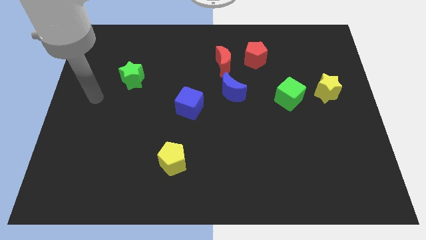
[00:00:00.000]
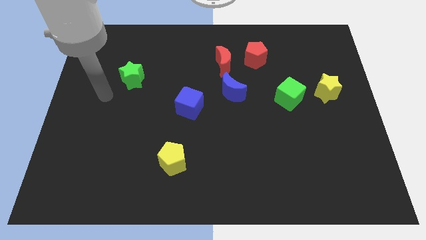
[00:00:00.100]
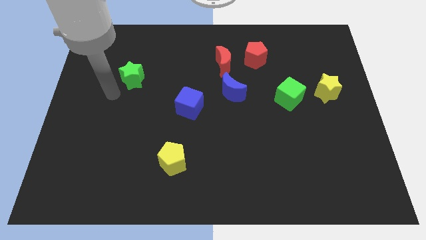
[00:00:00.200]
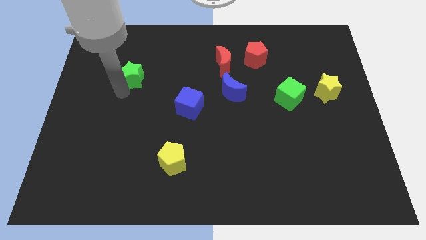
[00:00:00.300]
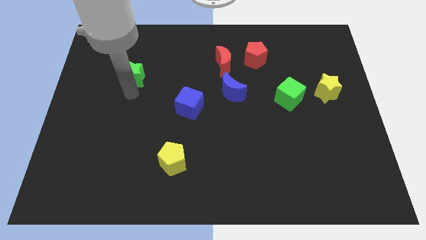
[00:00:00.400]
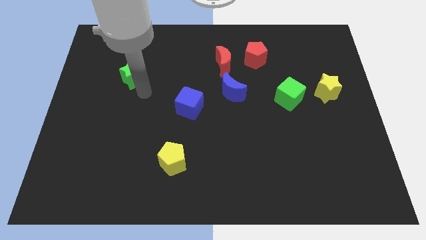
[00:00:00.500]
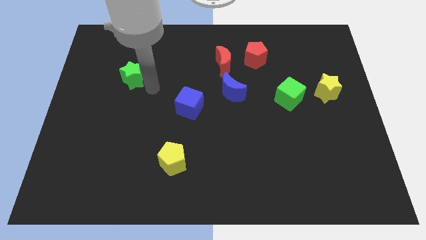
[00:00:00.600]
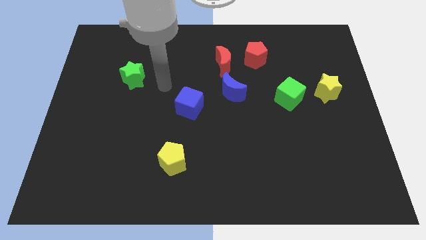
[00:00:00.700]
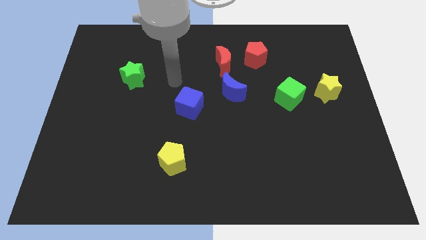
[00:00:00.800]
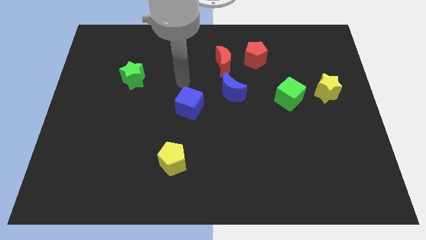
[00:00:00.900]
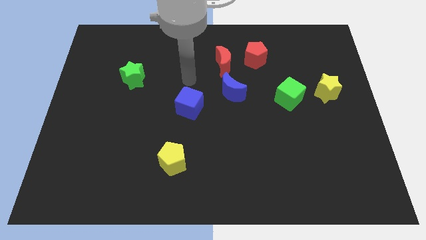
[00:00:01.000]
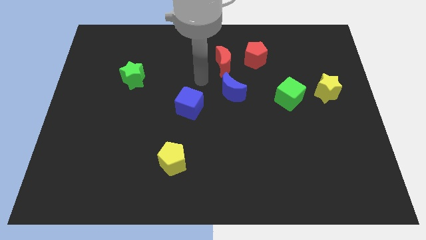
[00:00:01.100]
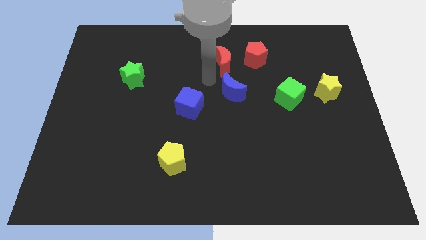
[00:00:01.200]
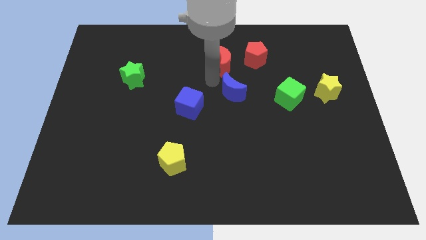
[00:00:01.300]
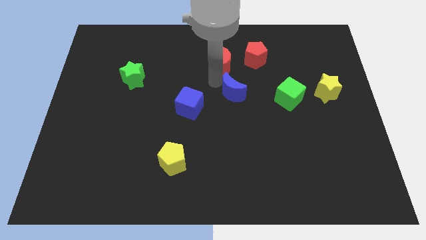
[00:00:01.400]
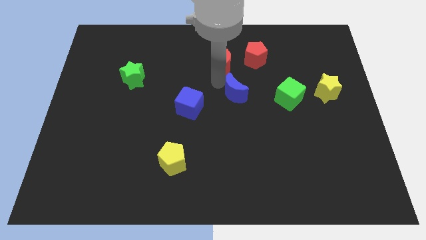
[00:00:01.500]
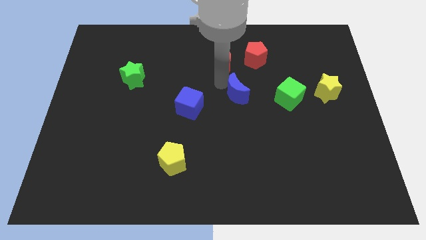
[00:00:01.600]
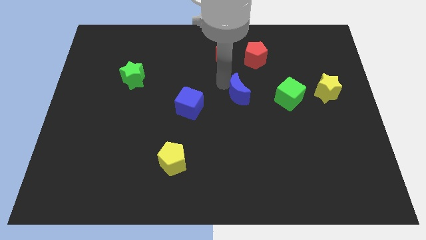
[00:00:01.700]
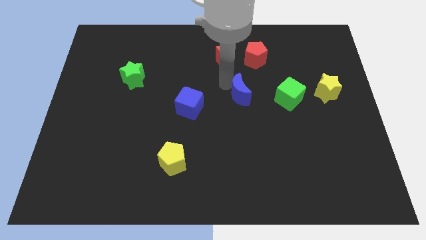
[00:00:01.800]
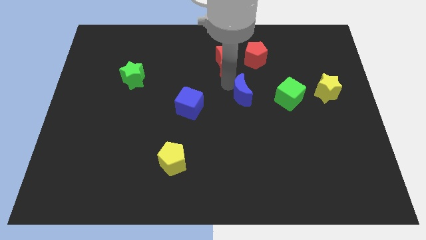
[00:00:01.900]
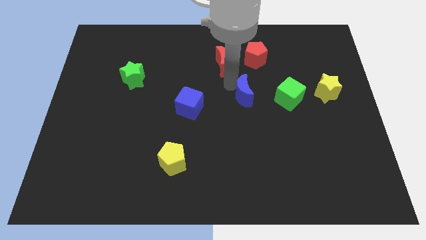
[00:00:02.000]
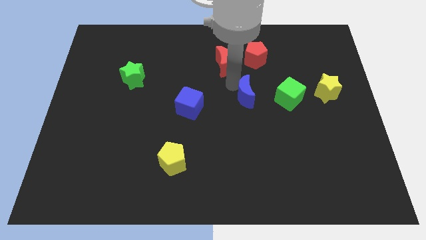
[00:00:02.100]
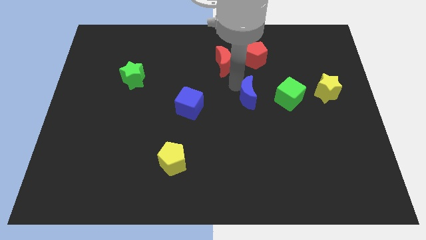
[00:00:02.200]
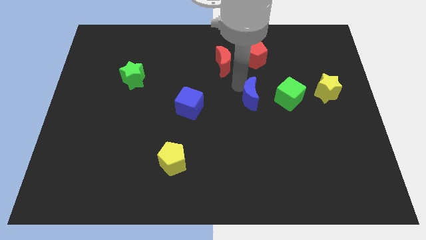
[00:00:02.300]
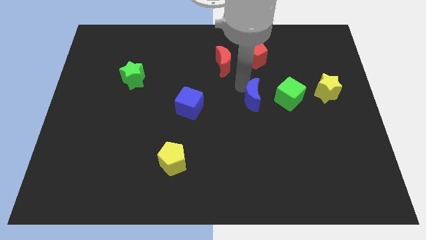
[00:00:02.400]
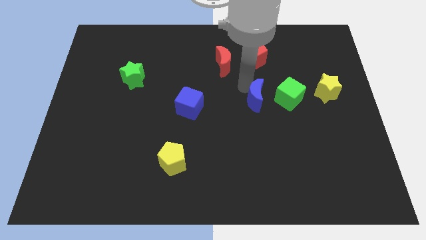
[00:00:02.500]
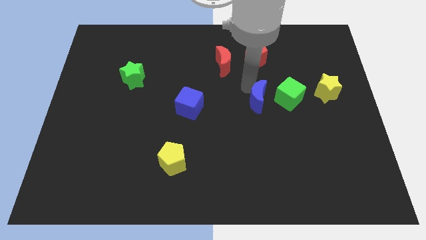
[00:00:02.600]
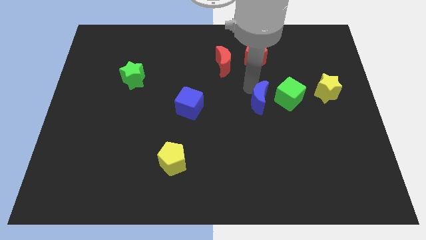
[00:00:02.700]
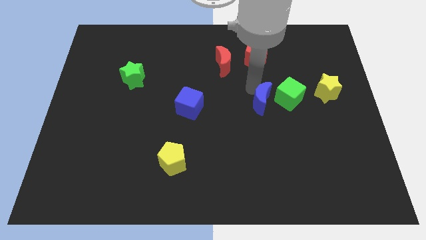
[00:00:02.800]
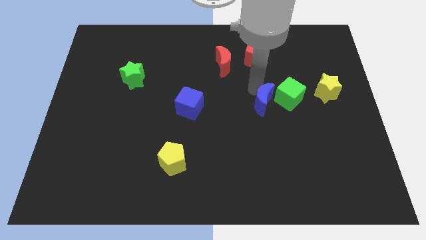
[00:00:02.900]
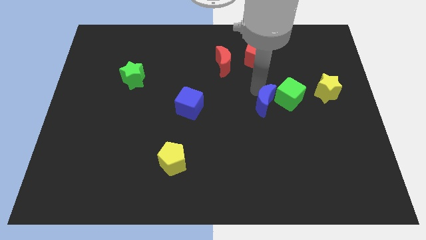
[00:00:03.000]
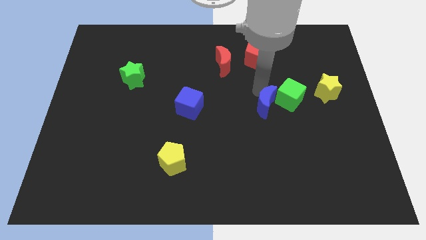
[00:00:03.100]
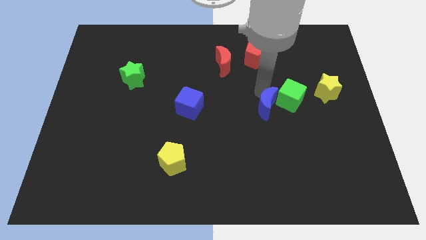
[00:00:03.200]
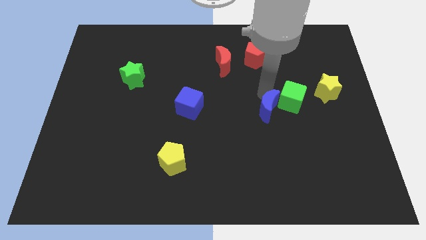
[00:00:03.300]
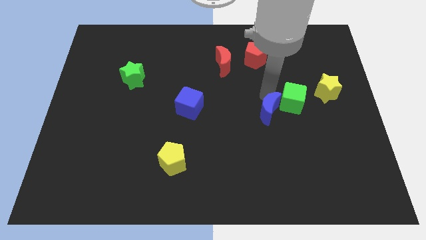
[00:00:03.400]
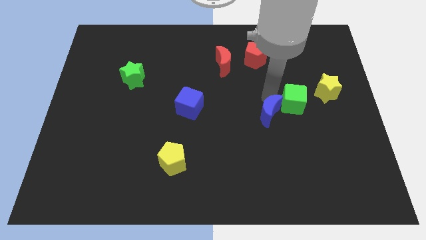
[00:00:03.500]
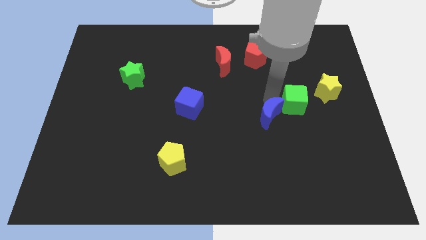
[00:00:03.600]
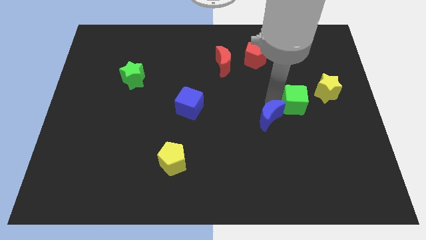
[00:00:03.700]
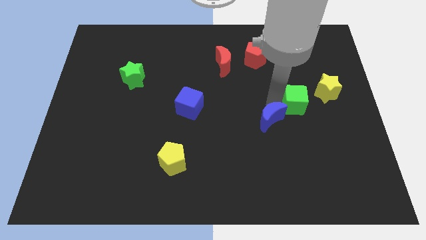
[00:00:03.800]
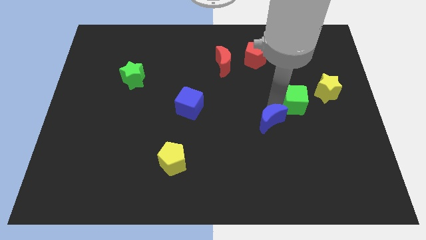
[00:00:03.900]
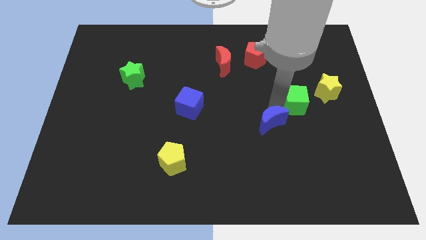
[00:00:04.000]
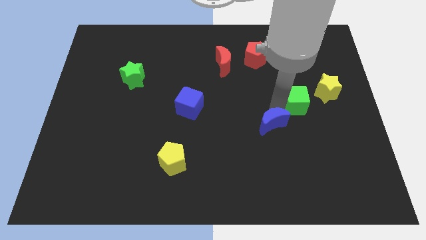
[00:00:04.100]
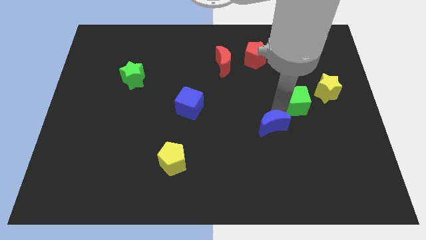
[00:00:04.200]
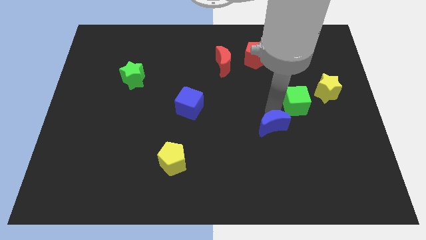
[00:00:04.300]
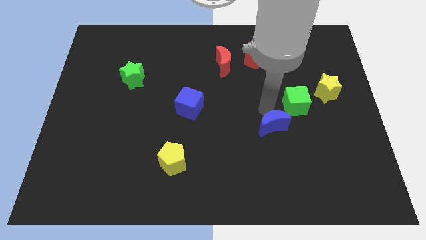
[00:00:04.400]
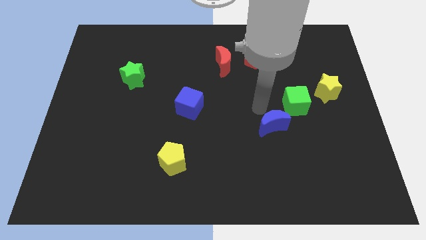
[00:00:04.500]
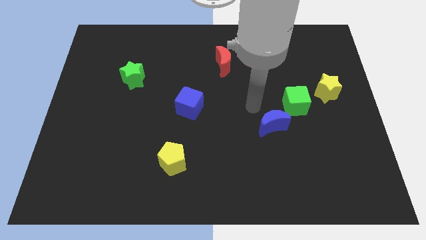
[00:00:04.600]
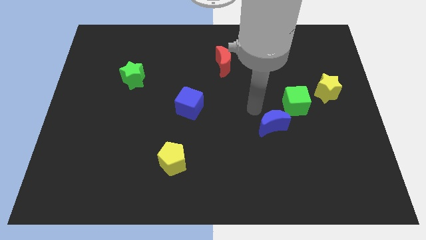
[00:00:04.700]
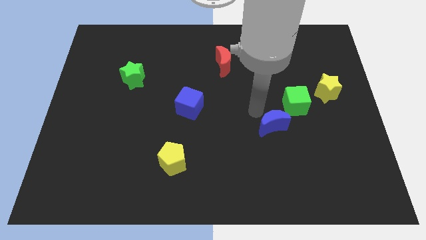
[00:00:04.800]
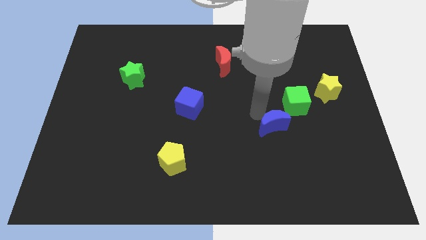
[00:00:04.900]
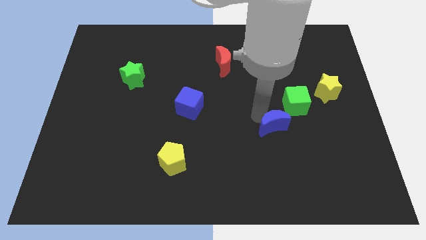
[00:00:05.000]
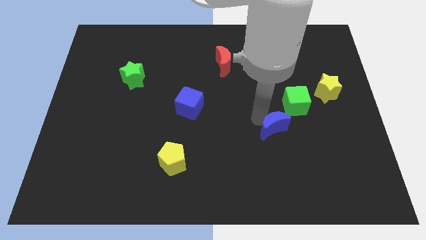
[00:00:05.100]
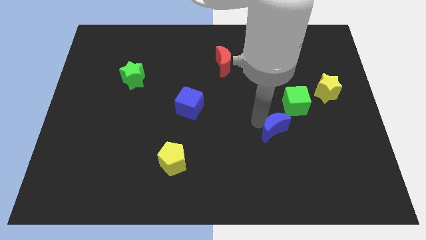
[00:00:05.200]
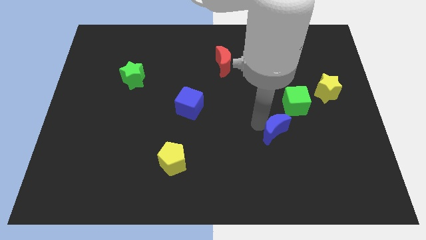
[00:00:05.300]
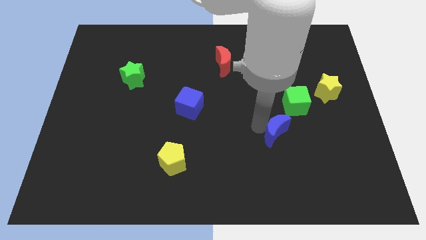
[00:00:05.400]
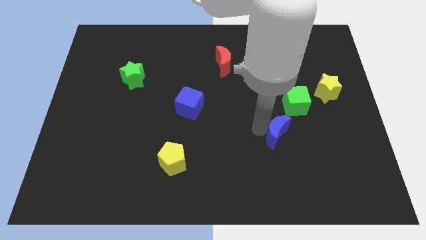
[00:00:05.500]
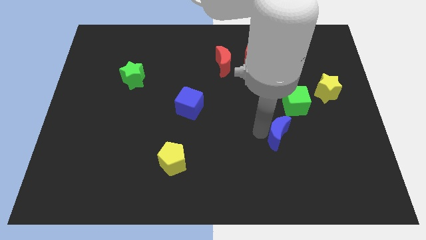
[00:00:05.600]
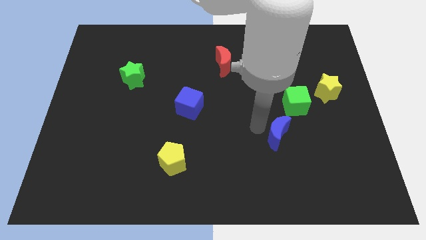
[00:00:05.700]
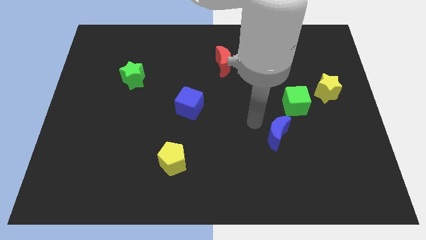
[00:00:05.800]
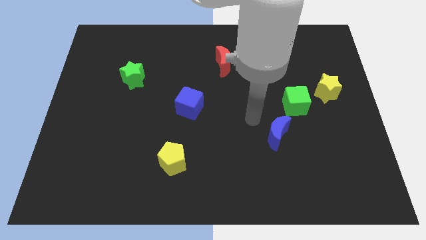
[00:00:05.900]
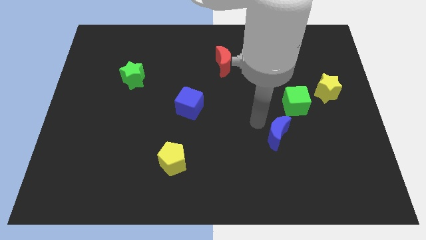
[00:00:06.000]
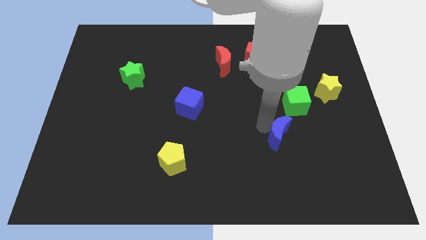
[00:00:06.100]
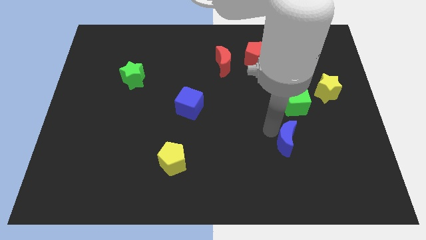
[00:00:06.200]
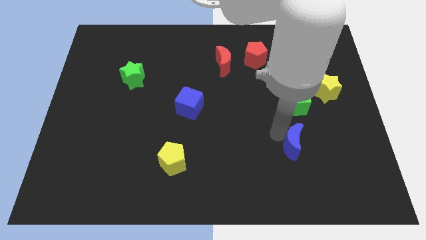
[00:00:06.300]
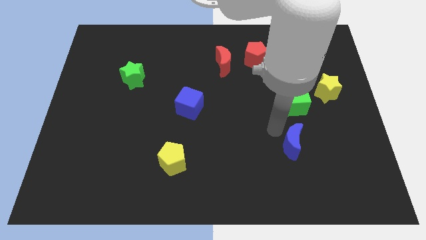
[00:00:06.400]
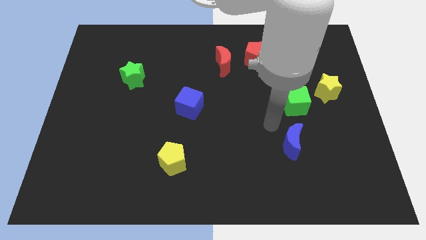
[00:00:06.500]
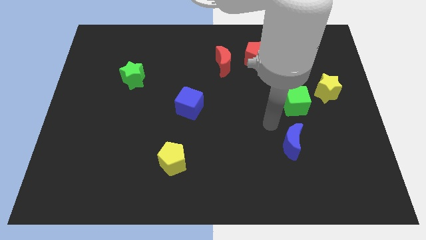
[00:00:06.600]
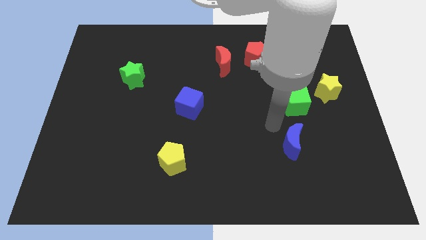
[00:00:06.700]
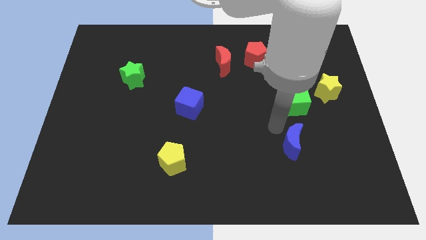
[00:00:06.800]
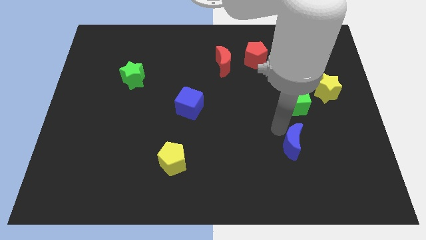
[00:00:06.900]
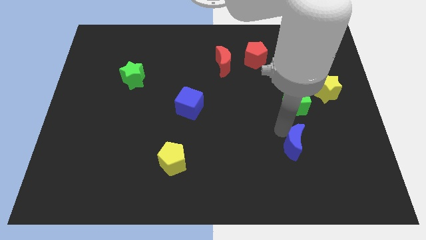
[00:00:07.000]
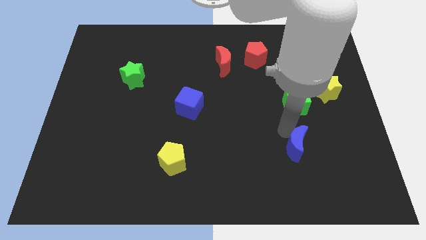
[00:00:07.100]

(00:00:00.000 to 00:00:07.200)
move the blue moon downwards and then right

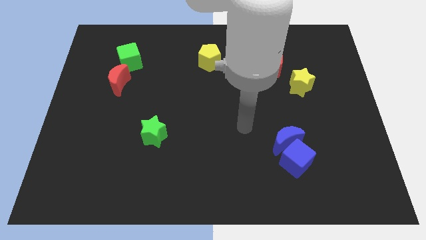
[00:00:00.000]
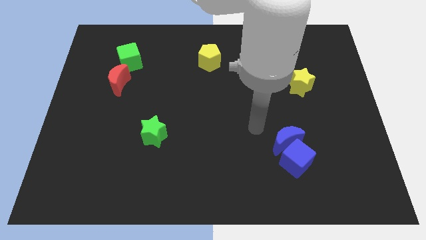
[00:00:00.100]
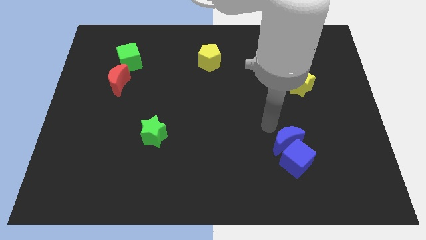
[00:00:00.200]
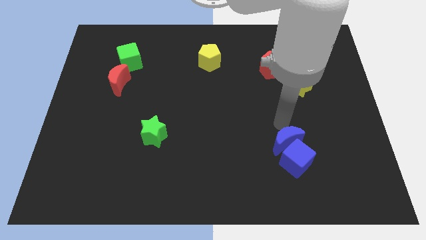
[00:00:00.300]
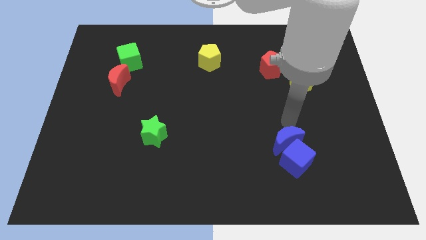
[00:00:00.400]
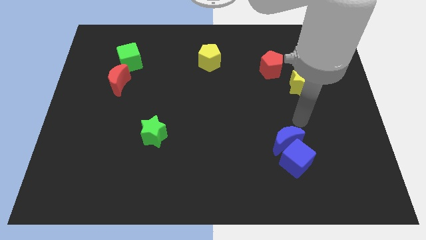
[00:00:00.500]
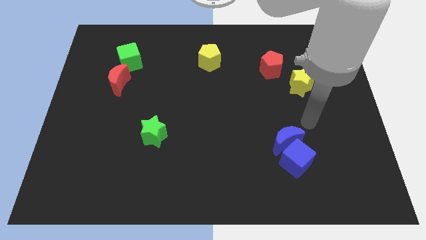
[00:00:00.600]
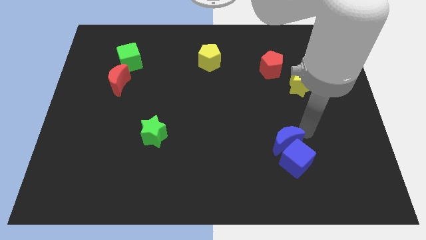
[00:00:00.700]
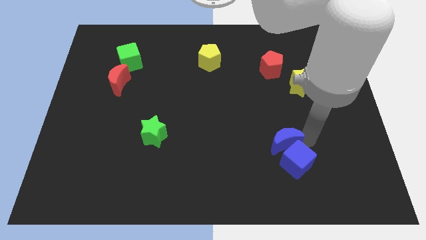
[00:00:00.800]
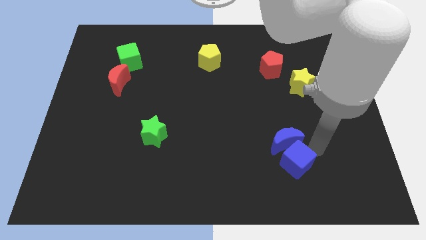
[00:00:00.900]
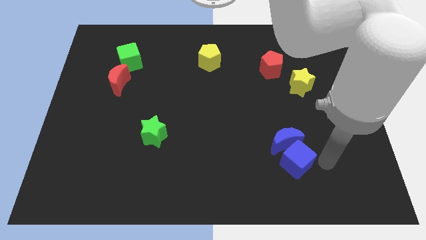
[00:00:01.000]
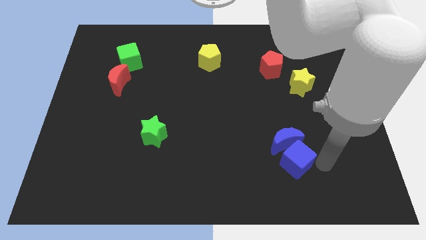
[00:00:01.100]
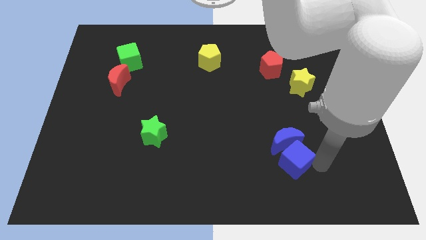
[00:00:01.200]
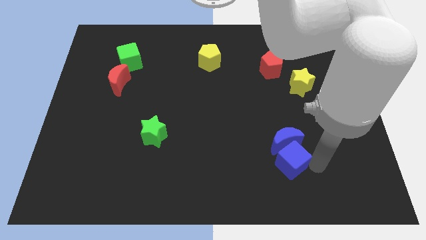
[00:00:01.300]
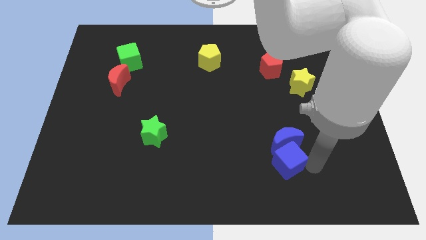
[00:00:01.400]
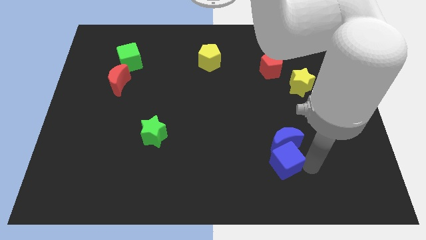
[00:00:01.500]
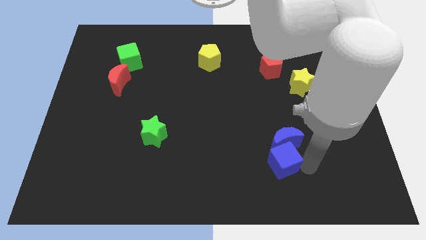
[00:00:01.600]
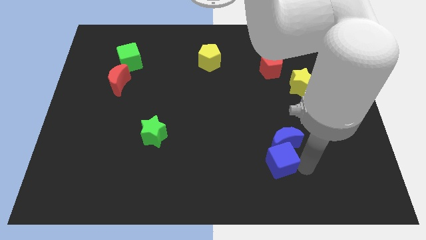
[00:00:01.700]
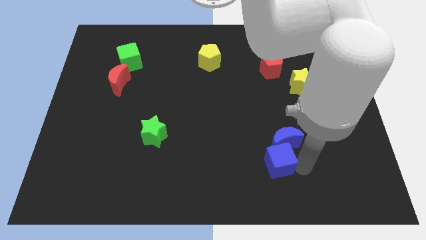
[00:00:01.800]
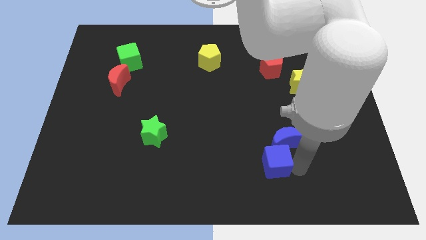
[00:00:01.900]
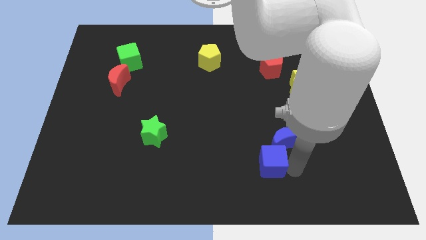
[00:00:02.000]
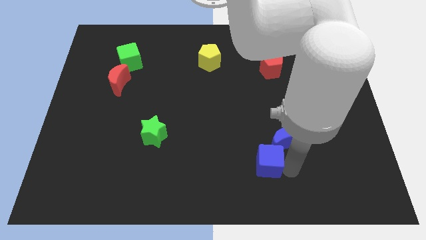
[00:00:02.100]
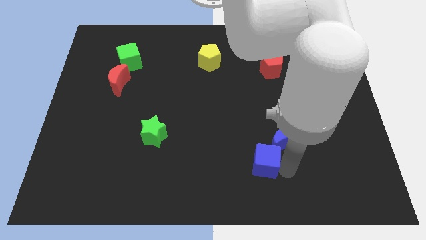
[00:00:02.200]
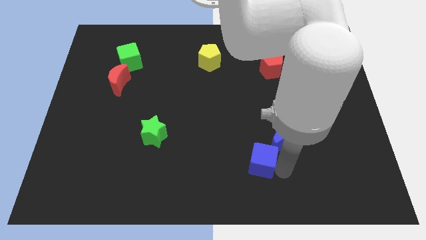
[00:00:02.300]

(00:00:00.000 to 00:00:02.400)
slightly move the blue cube to the left
